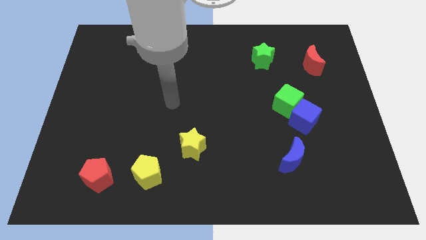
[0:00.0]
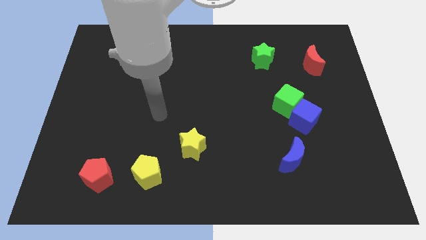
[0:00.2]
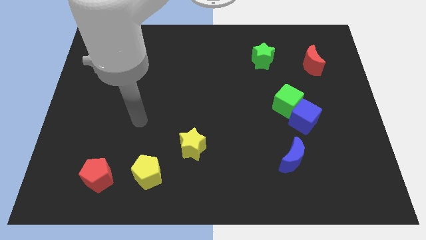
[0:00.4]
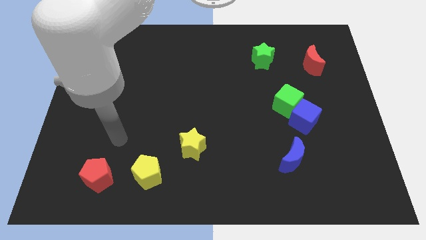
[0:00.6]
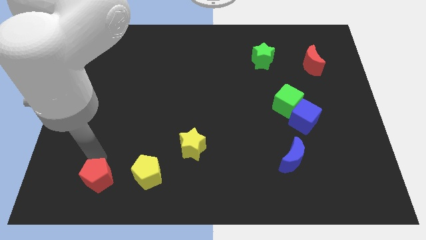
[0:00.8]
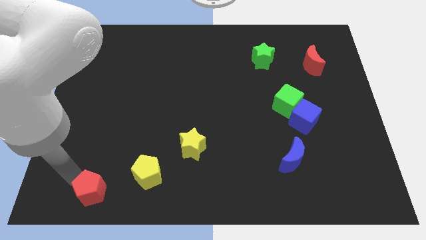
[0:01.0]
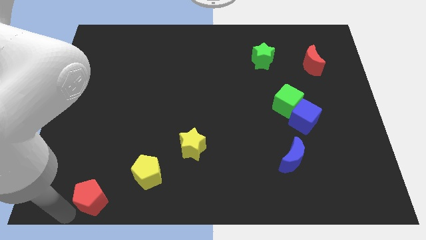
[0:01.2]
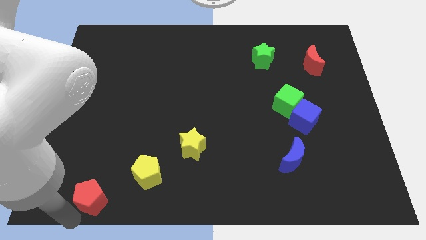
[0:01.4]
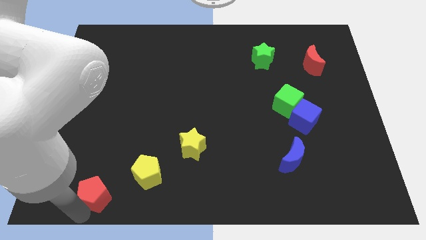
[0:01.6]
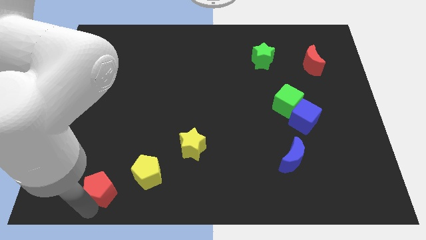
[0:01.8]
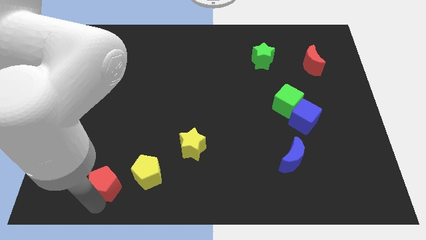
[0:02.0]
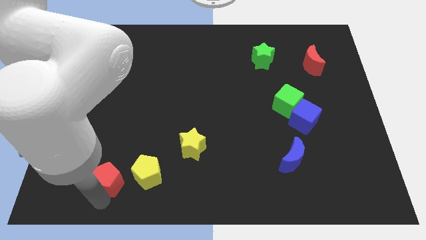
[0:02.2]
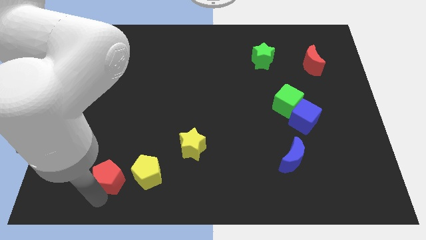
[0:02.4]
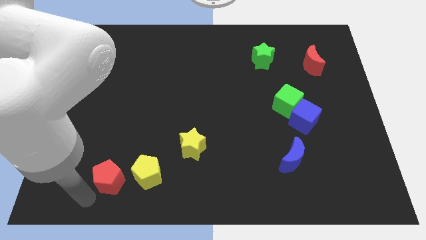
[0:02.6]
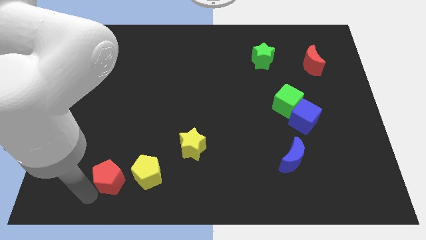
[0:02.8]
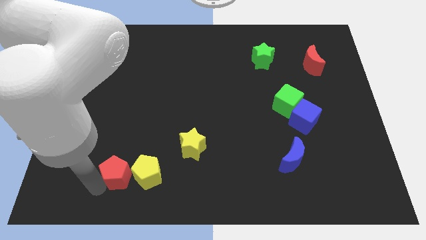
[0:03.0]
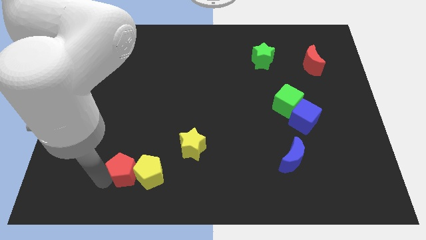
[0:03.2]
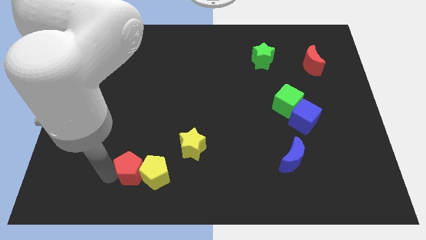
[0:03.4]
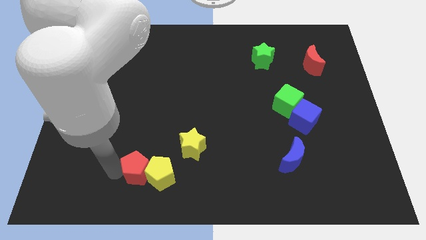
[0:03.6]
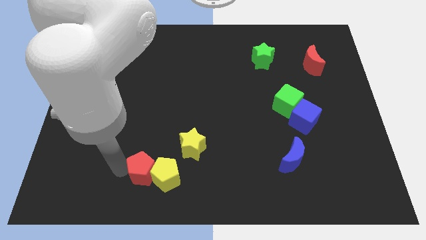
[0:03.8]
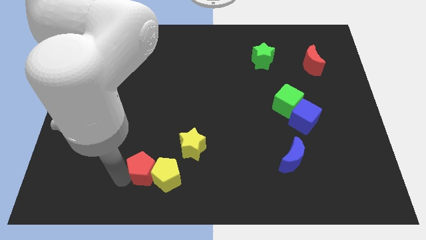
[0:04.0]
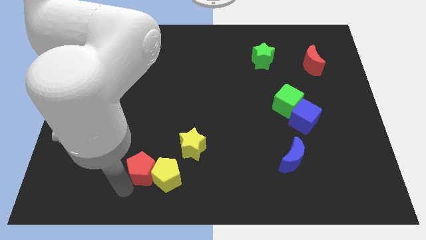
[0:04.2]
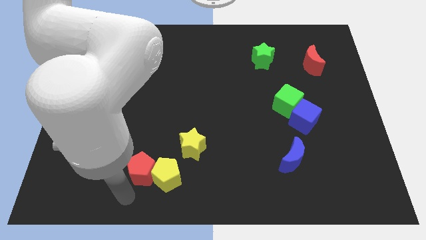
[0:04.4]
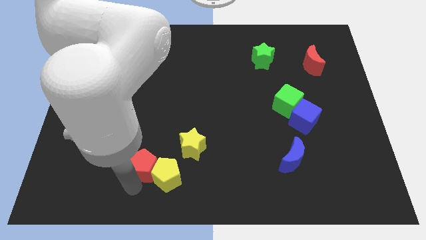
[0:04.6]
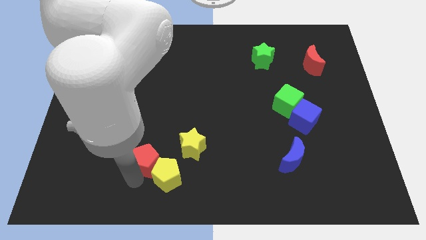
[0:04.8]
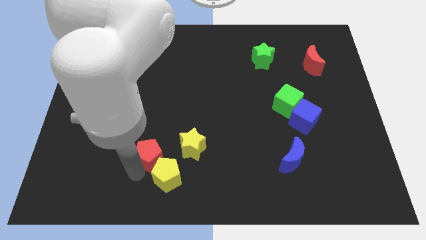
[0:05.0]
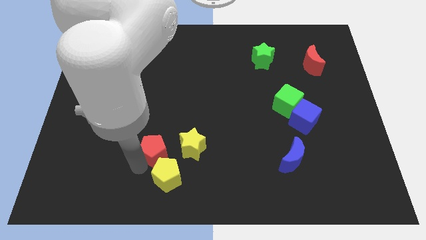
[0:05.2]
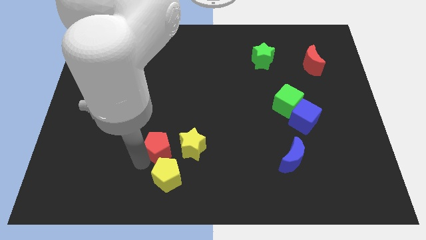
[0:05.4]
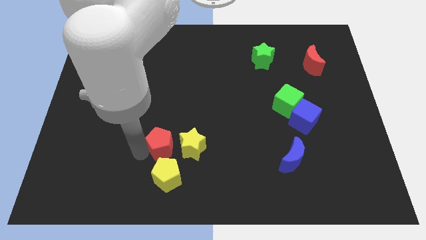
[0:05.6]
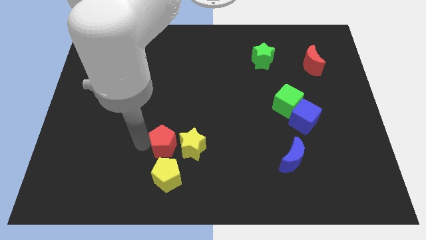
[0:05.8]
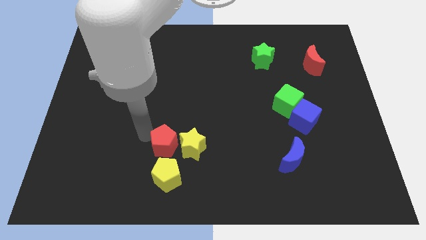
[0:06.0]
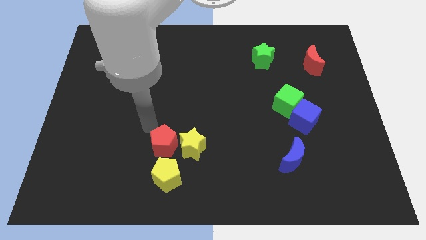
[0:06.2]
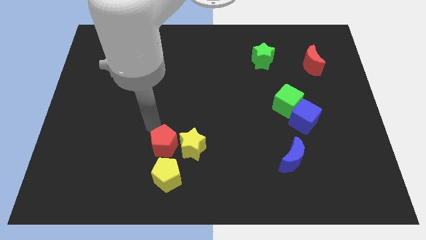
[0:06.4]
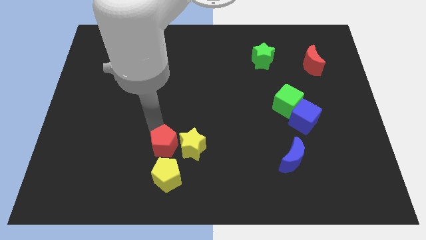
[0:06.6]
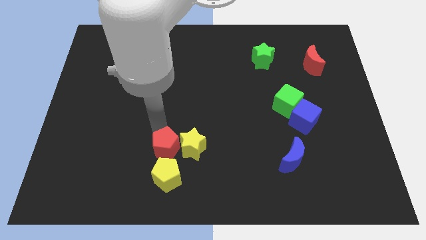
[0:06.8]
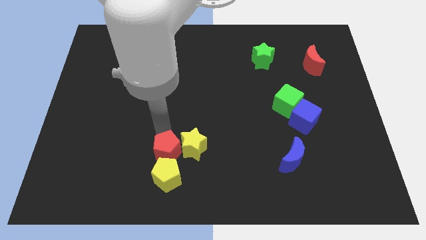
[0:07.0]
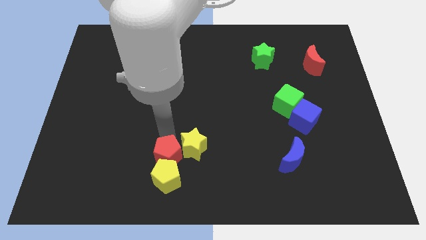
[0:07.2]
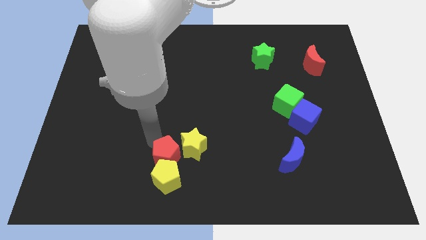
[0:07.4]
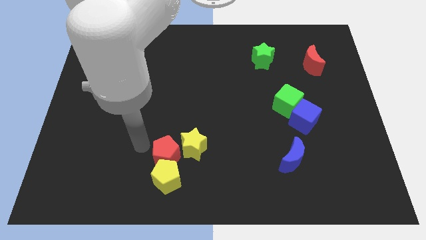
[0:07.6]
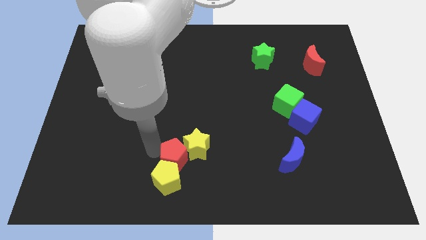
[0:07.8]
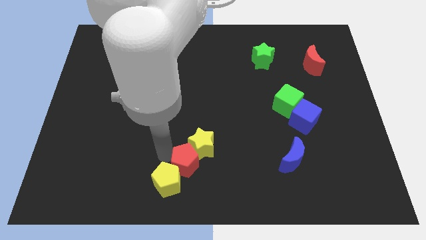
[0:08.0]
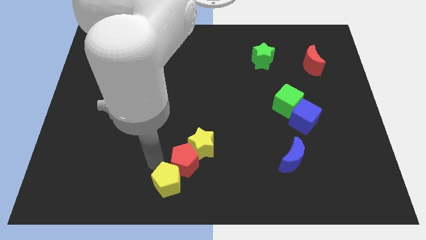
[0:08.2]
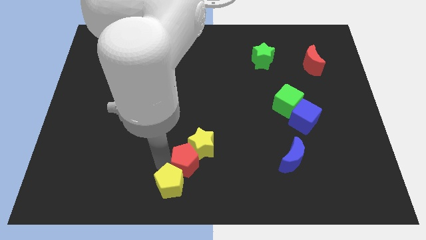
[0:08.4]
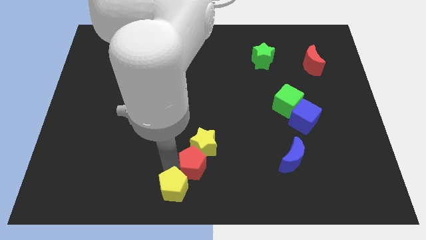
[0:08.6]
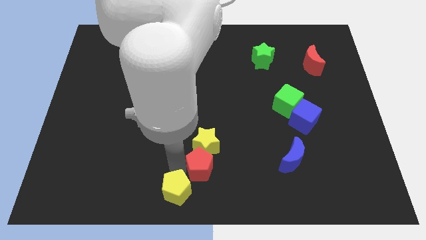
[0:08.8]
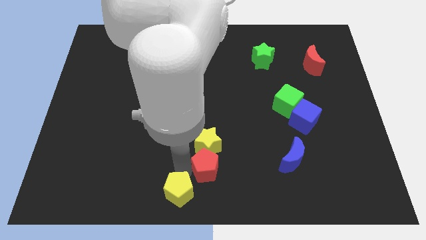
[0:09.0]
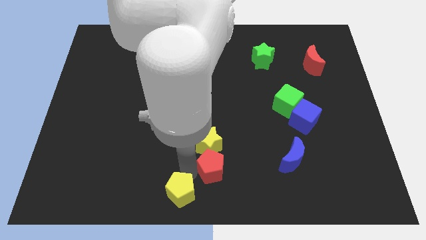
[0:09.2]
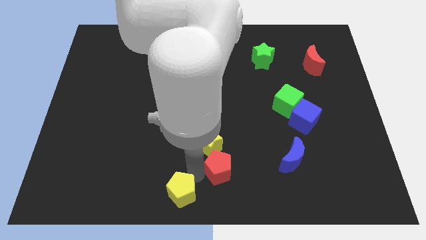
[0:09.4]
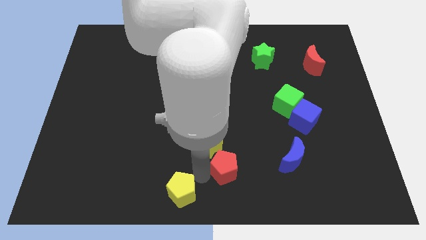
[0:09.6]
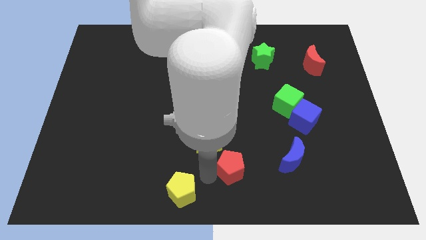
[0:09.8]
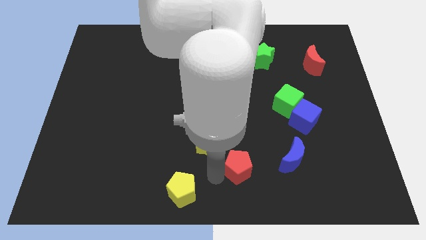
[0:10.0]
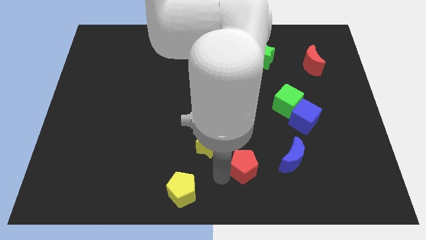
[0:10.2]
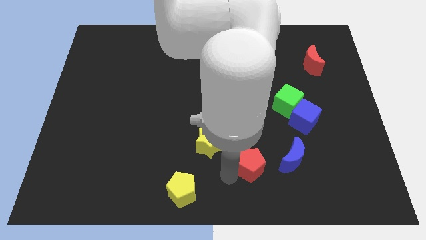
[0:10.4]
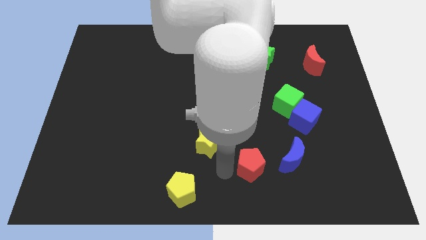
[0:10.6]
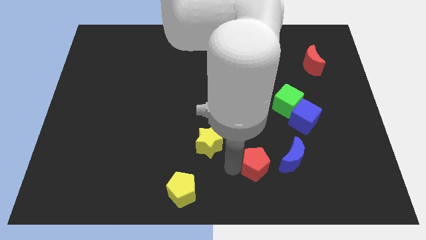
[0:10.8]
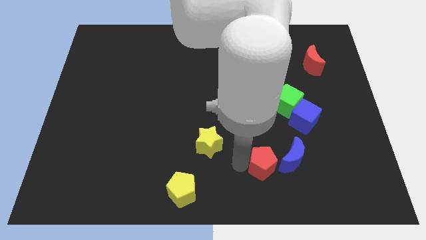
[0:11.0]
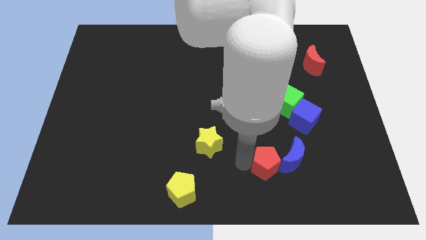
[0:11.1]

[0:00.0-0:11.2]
put the red pentagon towards the blue moon

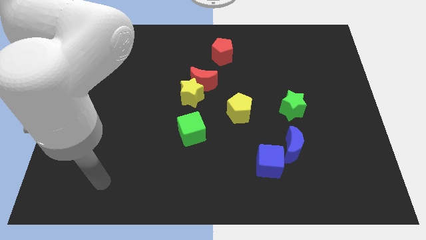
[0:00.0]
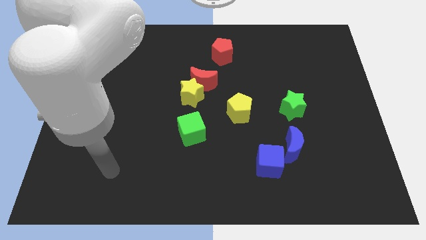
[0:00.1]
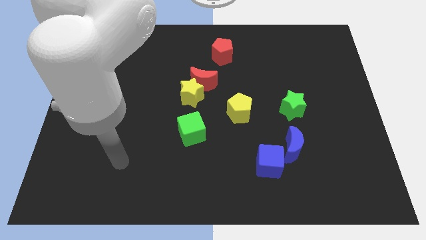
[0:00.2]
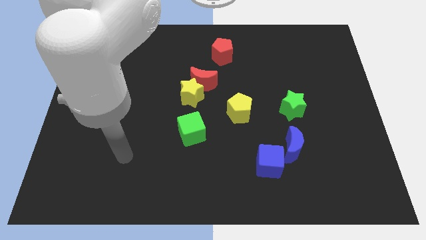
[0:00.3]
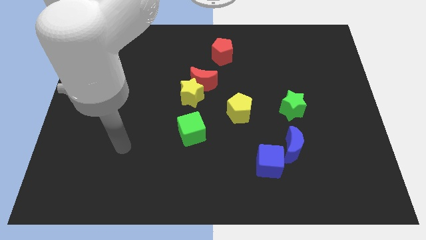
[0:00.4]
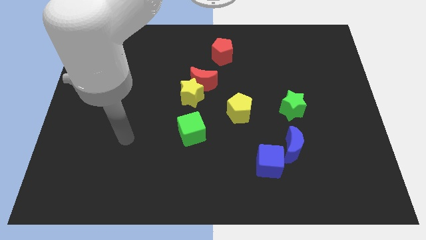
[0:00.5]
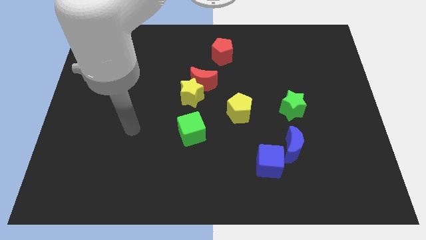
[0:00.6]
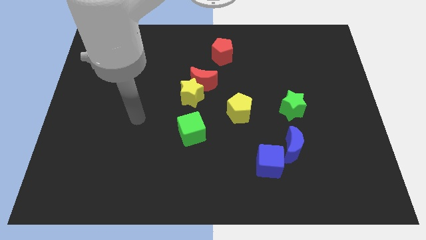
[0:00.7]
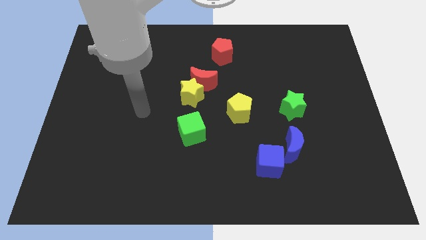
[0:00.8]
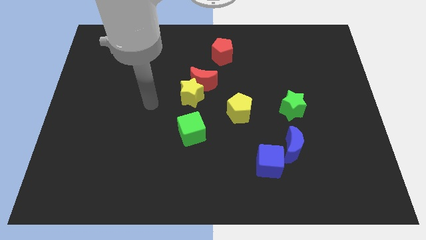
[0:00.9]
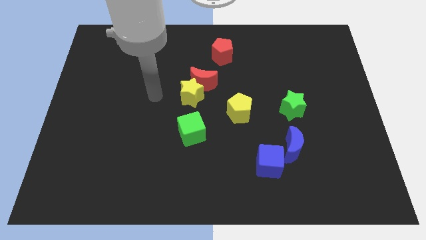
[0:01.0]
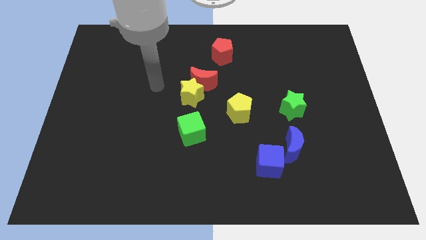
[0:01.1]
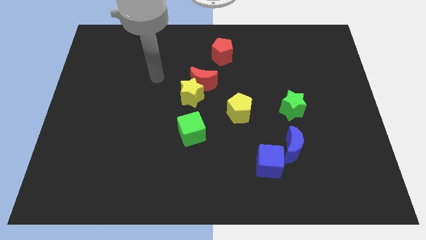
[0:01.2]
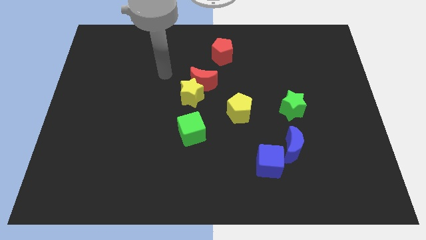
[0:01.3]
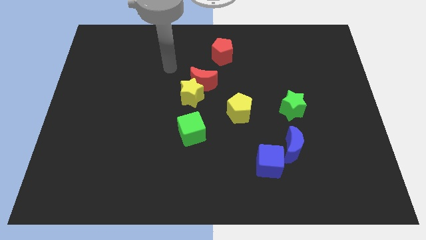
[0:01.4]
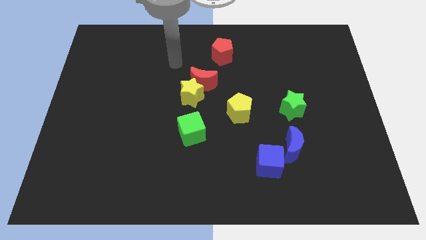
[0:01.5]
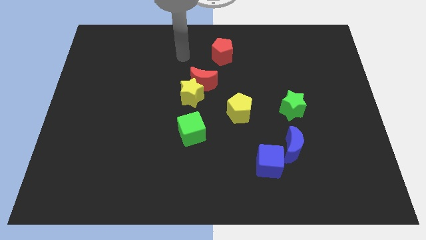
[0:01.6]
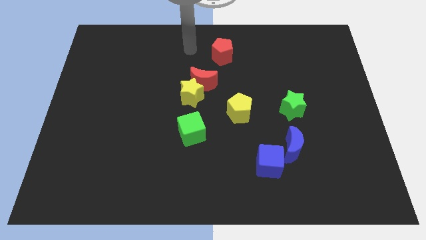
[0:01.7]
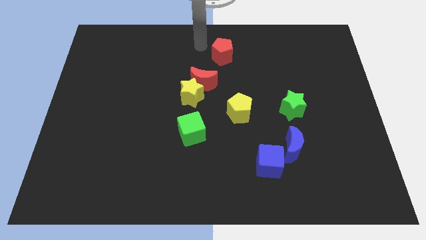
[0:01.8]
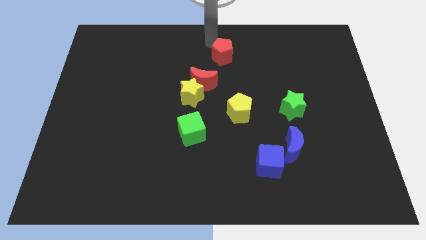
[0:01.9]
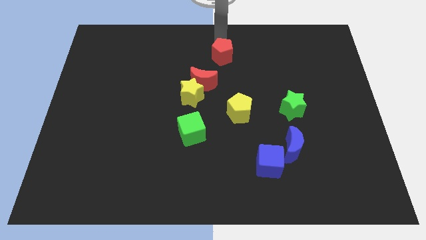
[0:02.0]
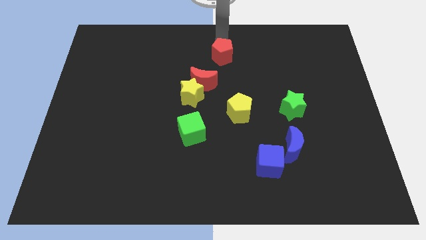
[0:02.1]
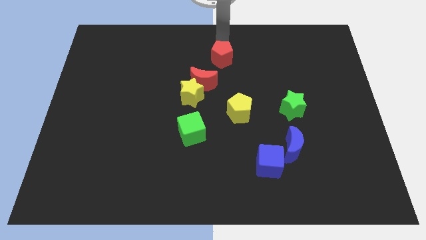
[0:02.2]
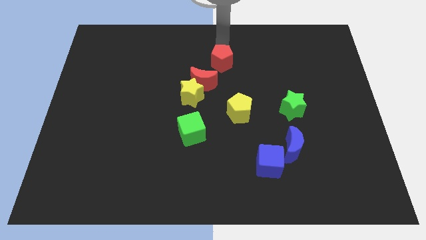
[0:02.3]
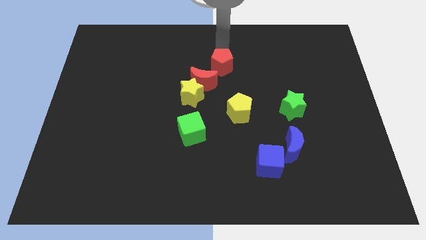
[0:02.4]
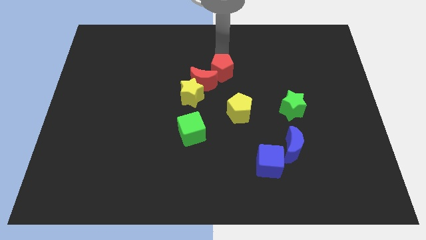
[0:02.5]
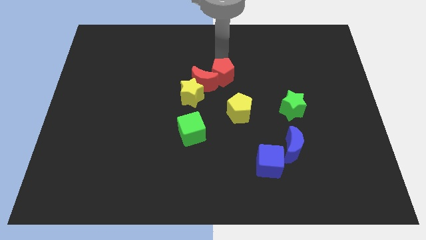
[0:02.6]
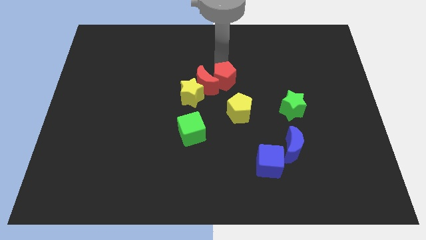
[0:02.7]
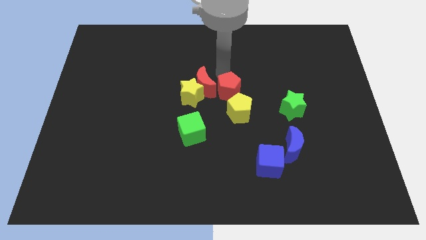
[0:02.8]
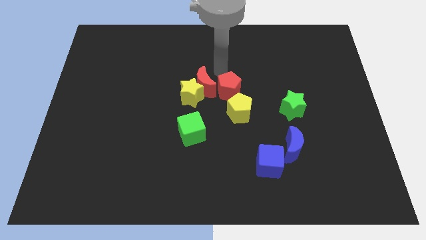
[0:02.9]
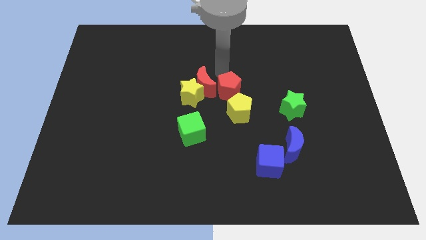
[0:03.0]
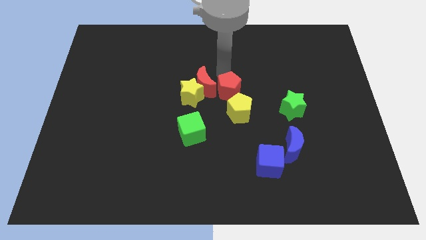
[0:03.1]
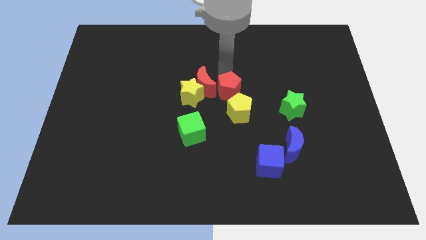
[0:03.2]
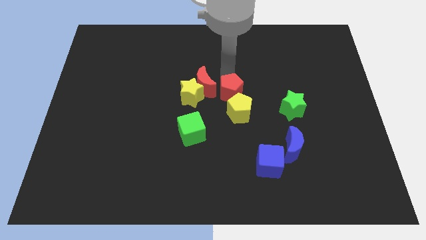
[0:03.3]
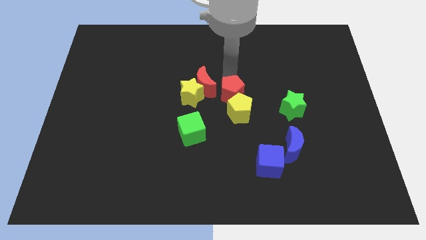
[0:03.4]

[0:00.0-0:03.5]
move the red pentagon towards the yellow pentagon
